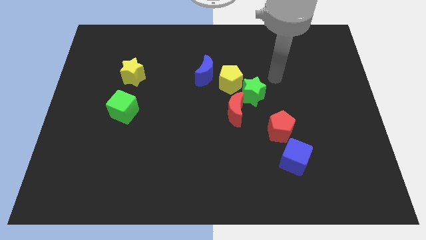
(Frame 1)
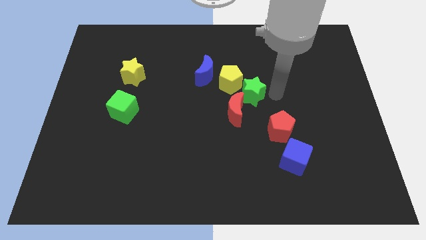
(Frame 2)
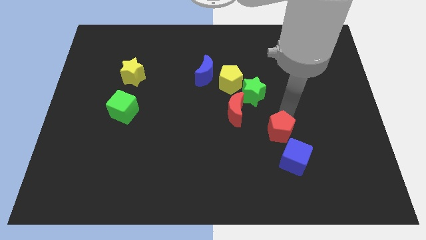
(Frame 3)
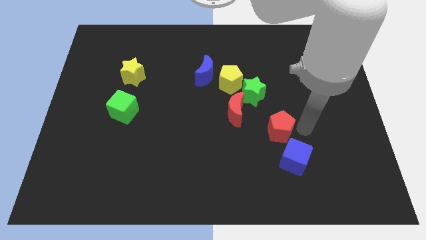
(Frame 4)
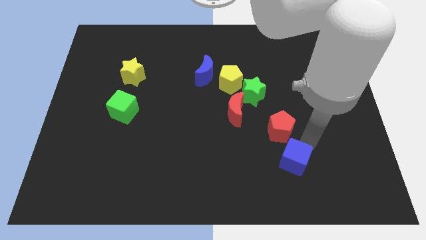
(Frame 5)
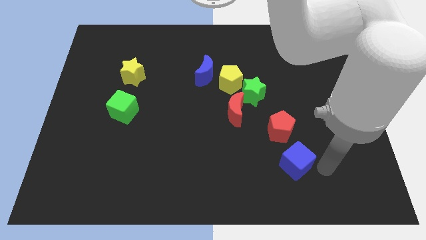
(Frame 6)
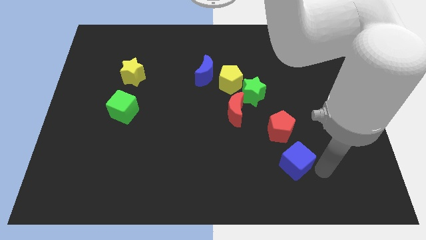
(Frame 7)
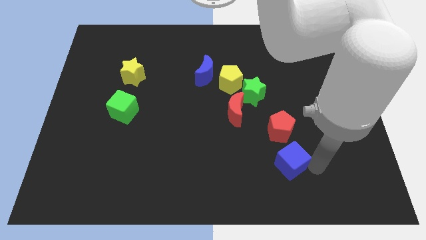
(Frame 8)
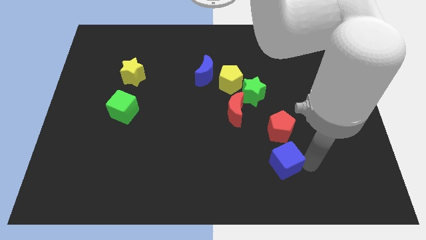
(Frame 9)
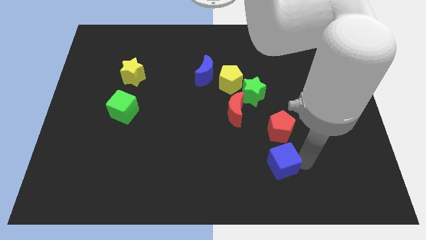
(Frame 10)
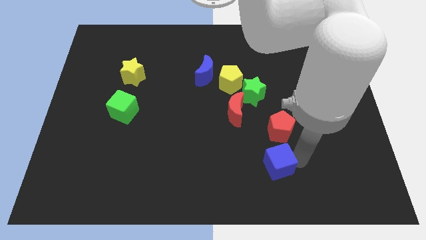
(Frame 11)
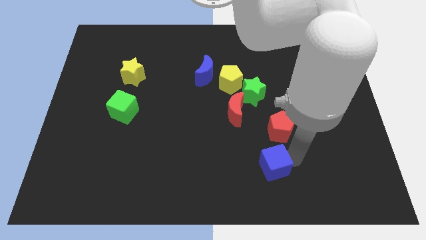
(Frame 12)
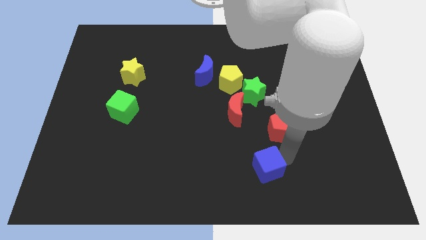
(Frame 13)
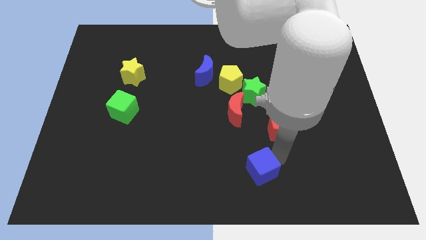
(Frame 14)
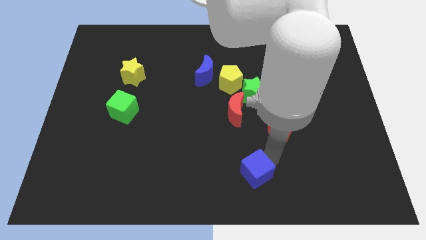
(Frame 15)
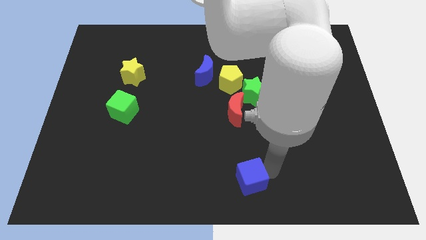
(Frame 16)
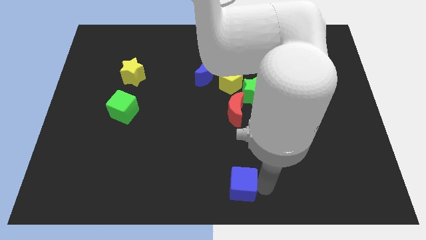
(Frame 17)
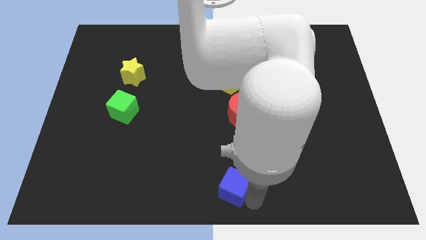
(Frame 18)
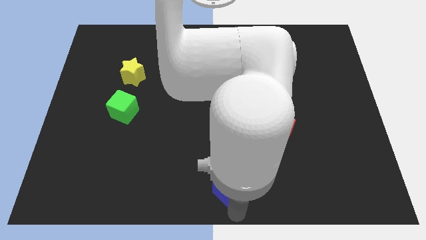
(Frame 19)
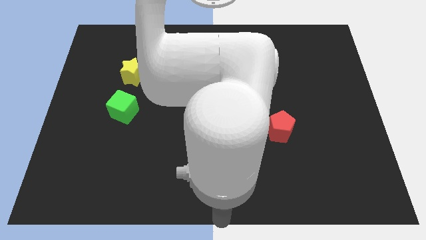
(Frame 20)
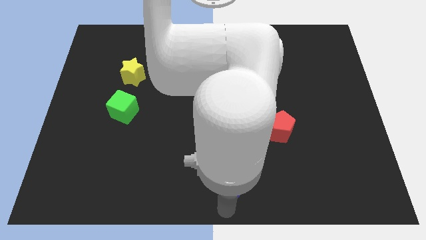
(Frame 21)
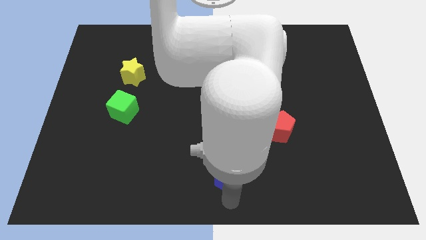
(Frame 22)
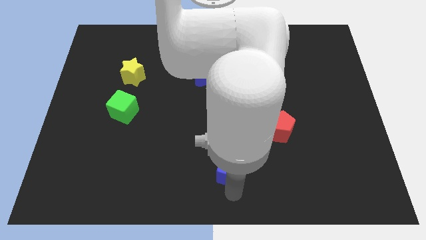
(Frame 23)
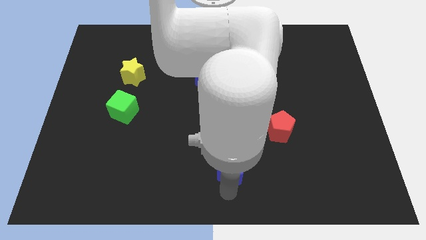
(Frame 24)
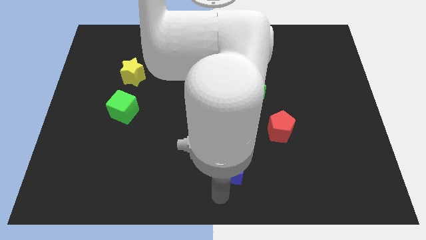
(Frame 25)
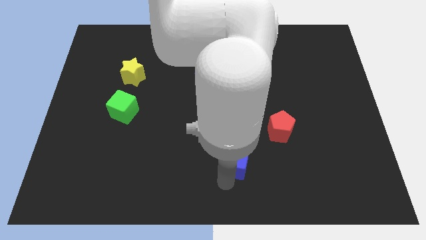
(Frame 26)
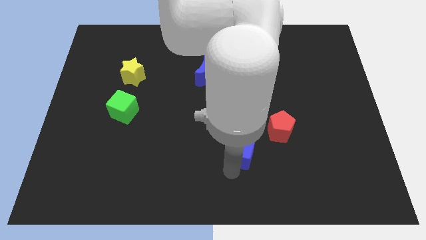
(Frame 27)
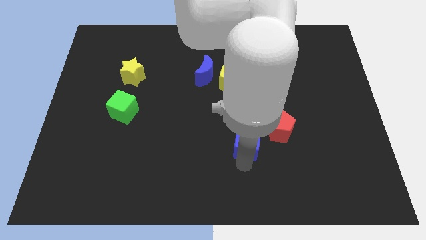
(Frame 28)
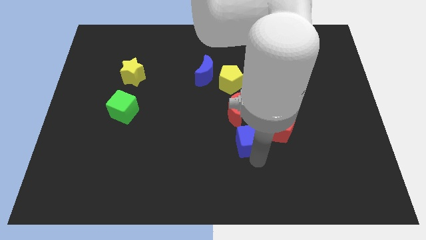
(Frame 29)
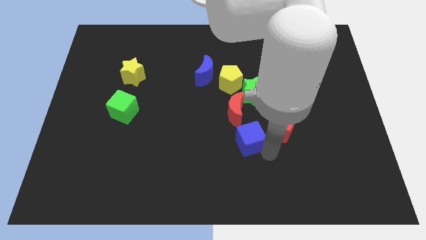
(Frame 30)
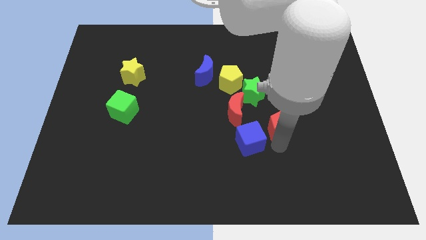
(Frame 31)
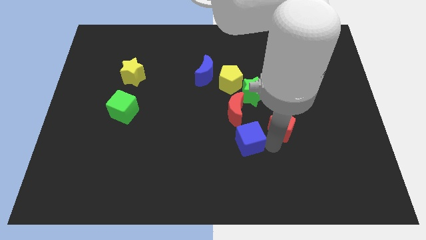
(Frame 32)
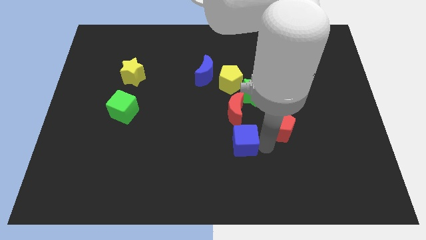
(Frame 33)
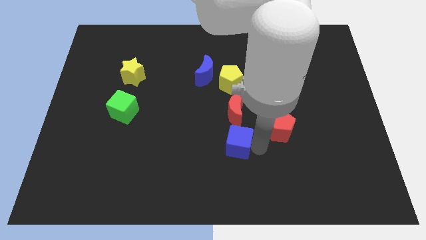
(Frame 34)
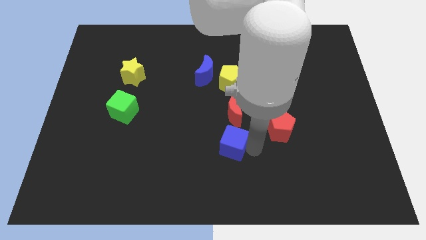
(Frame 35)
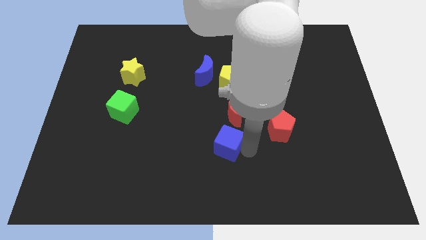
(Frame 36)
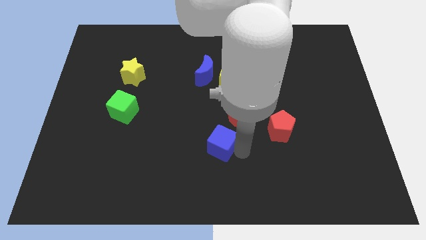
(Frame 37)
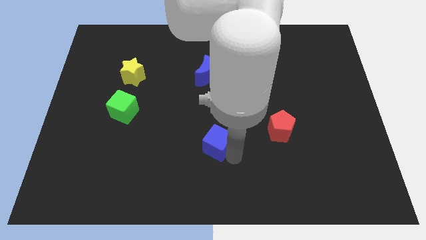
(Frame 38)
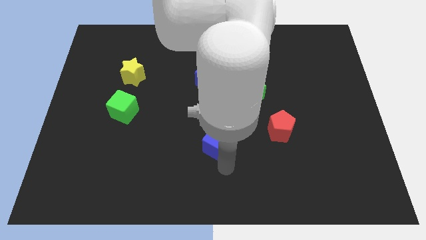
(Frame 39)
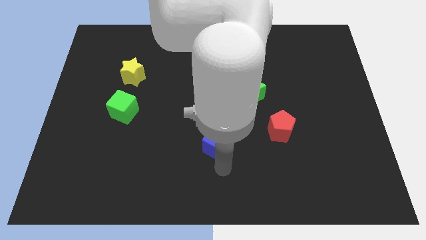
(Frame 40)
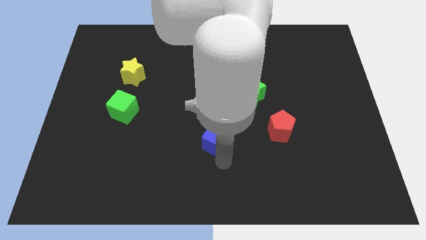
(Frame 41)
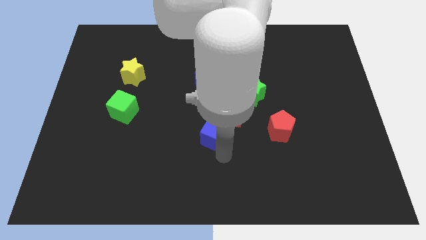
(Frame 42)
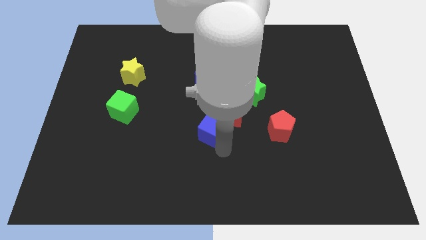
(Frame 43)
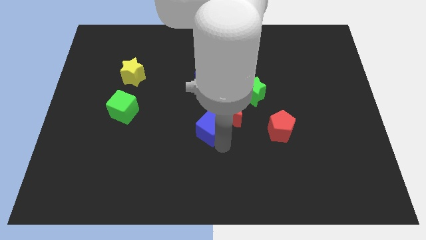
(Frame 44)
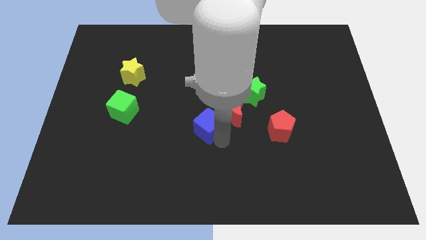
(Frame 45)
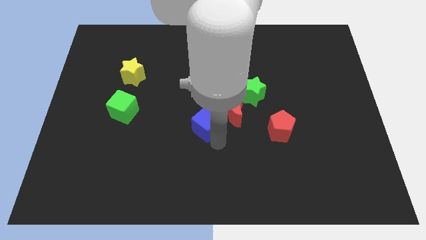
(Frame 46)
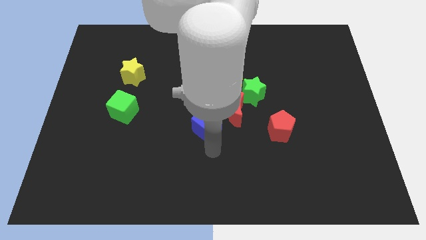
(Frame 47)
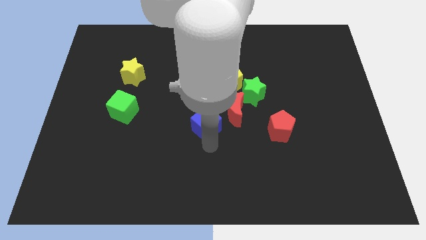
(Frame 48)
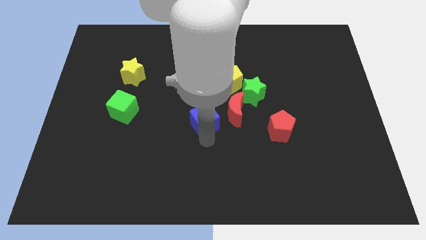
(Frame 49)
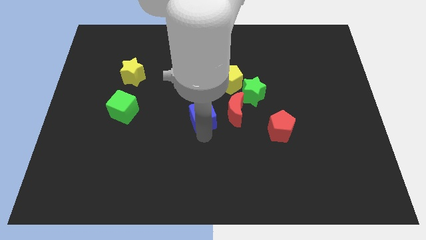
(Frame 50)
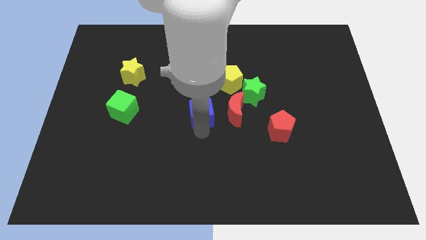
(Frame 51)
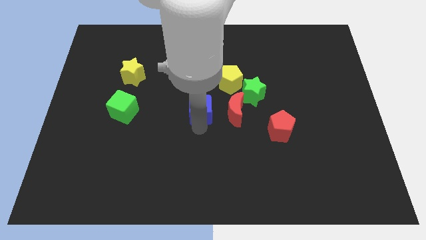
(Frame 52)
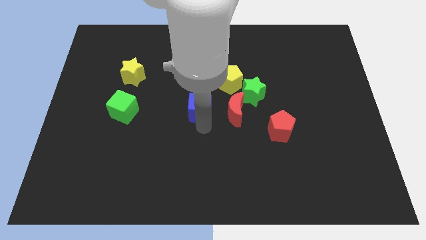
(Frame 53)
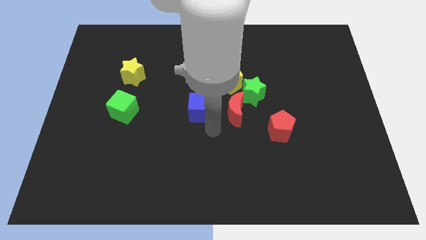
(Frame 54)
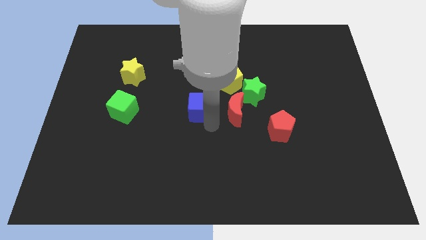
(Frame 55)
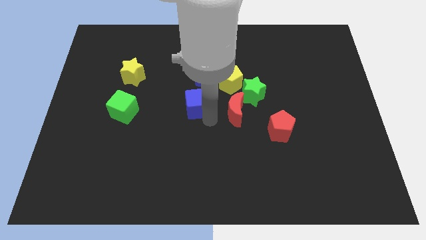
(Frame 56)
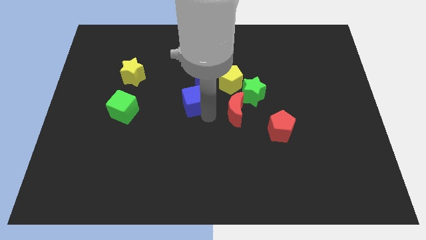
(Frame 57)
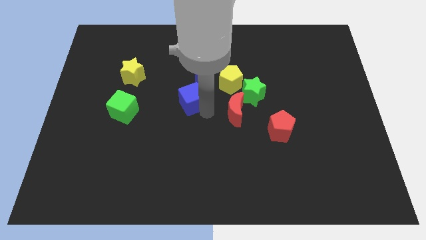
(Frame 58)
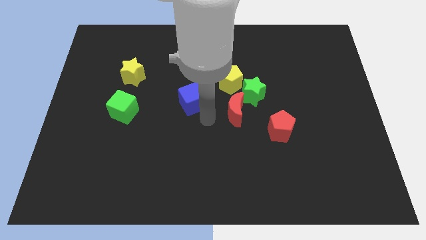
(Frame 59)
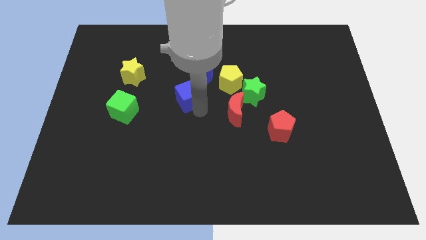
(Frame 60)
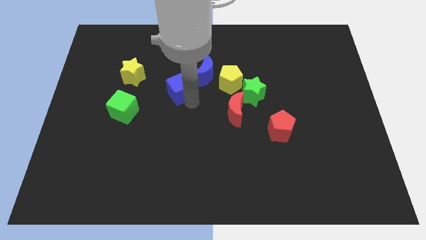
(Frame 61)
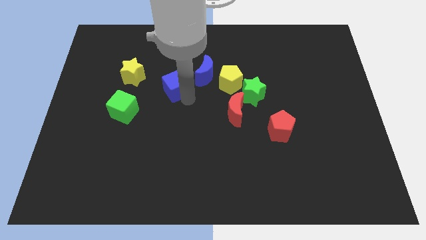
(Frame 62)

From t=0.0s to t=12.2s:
push the blue cube just left of the blue moon

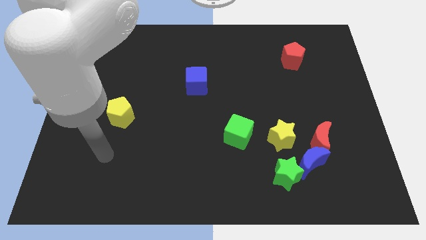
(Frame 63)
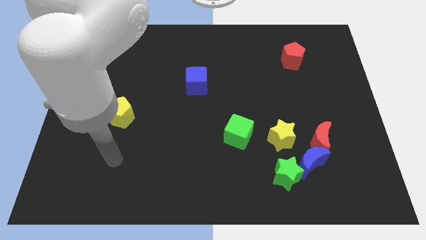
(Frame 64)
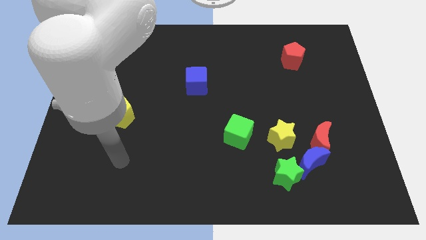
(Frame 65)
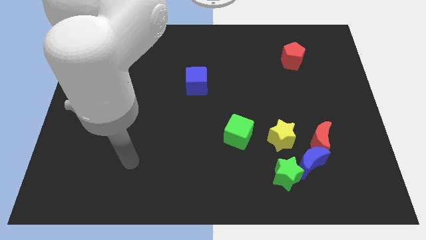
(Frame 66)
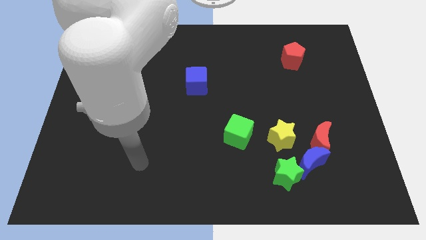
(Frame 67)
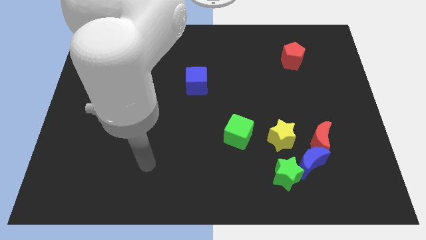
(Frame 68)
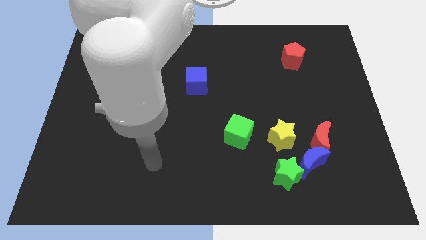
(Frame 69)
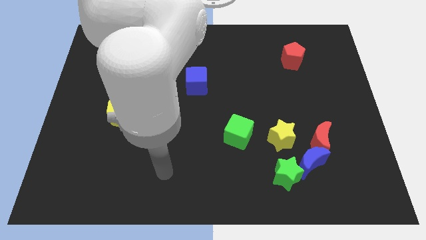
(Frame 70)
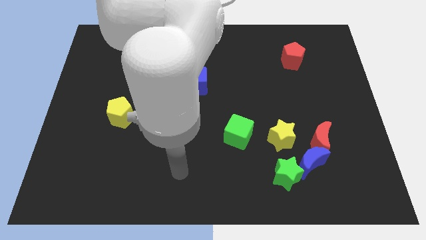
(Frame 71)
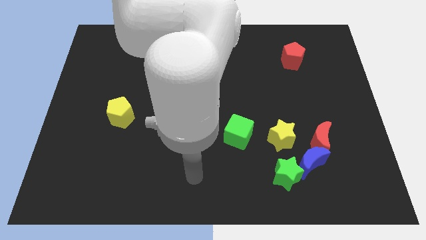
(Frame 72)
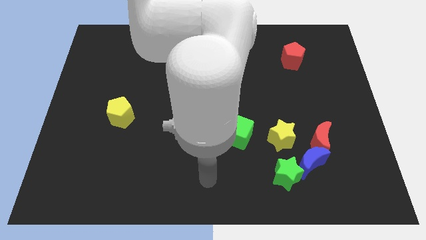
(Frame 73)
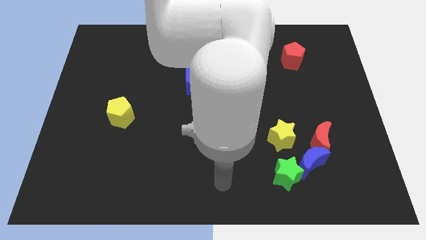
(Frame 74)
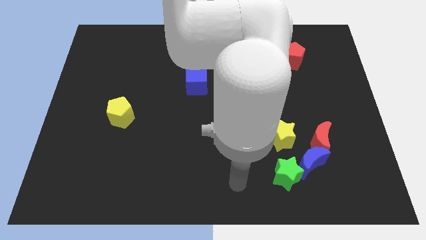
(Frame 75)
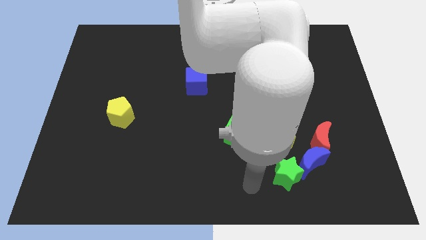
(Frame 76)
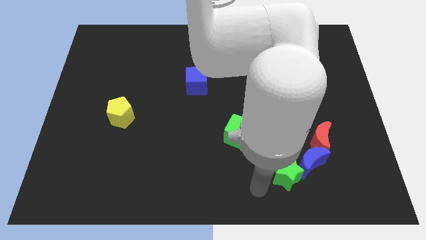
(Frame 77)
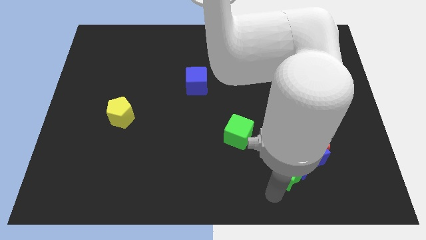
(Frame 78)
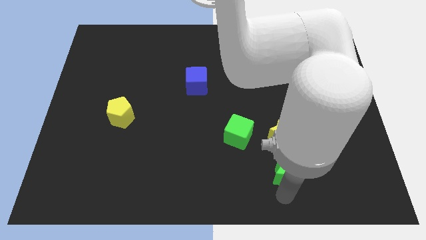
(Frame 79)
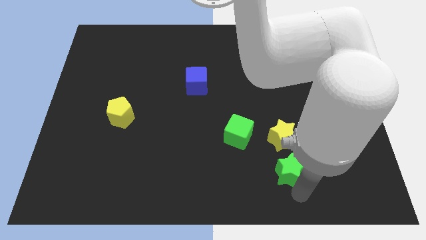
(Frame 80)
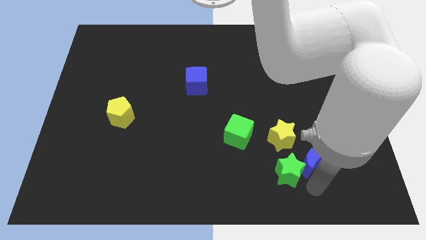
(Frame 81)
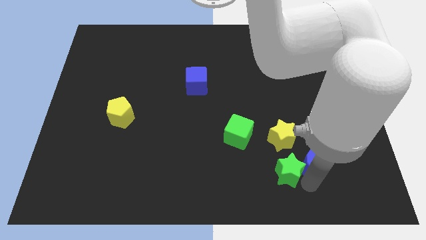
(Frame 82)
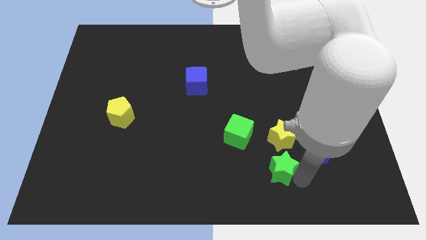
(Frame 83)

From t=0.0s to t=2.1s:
push the green star diagonally down and to the left of the yellow star
